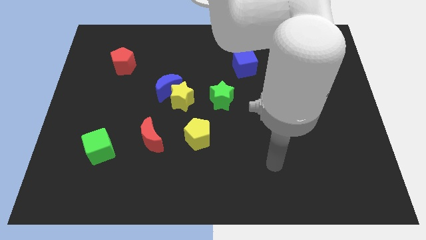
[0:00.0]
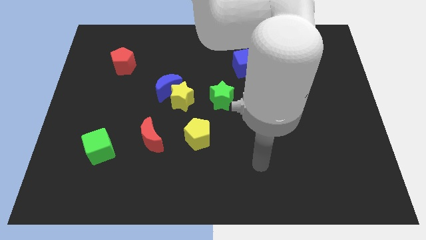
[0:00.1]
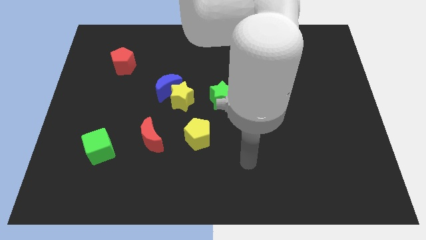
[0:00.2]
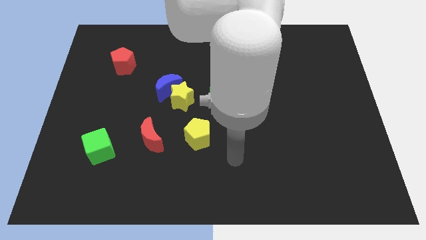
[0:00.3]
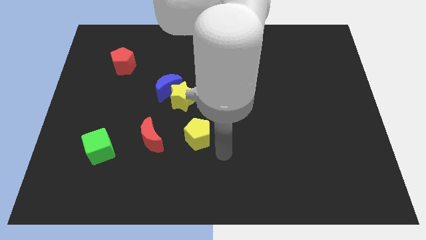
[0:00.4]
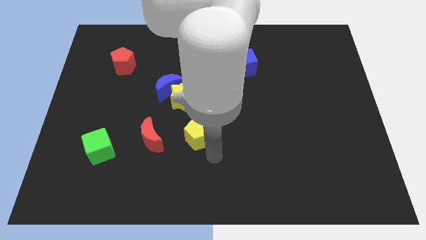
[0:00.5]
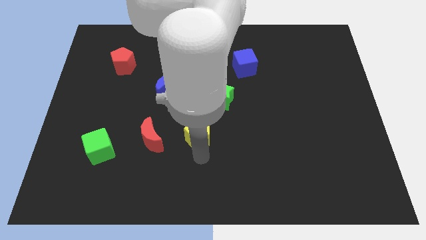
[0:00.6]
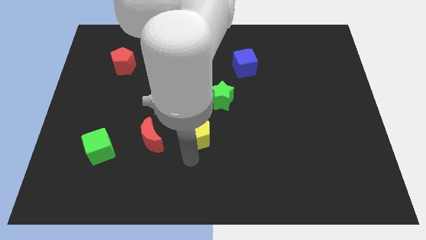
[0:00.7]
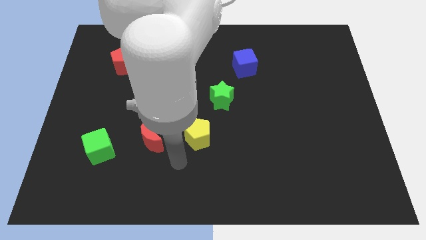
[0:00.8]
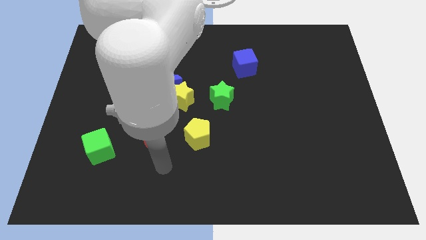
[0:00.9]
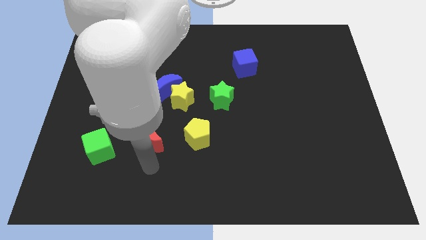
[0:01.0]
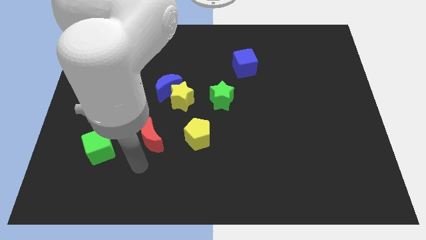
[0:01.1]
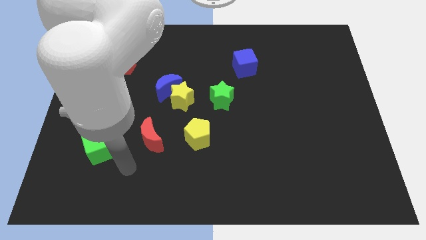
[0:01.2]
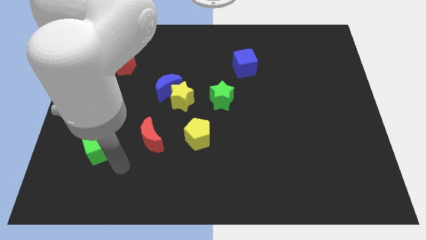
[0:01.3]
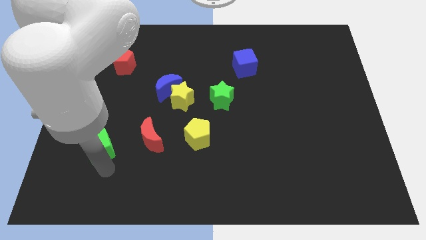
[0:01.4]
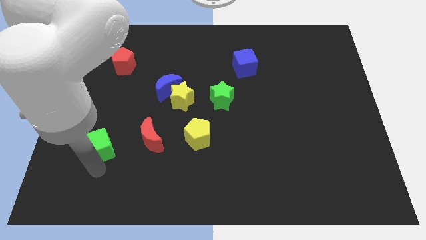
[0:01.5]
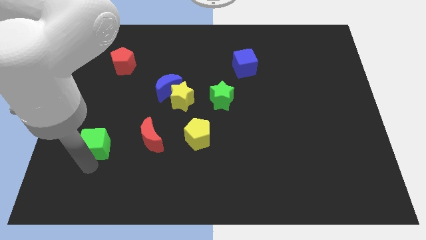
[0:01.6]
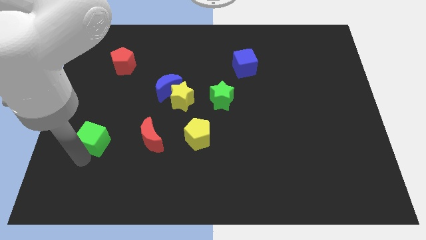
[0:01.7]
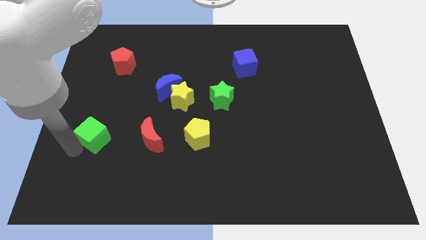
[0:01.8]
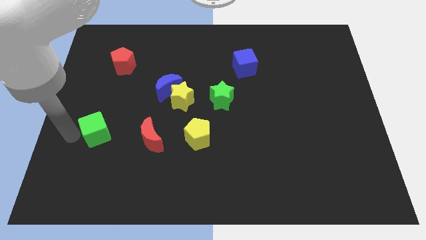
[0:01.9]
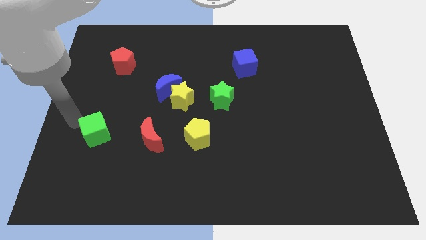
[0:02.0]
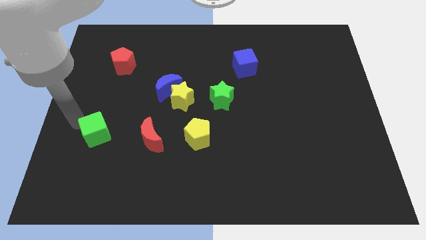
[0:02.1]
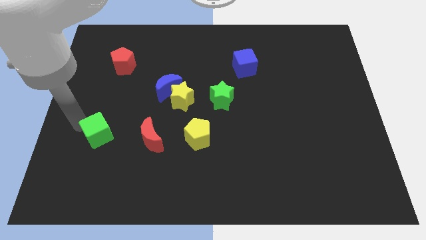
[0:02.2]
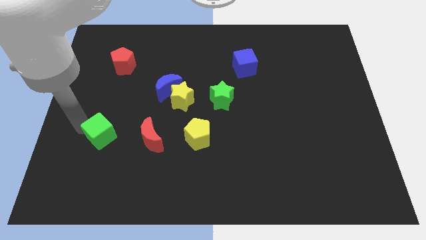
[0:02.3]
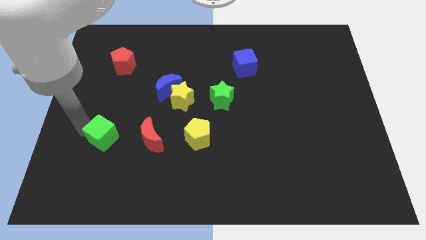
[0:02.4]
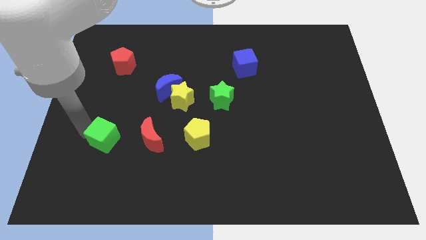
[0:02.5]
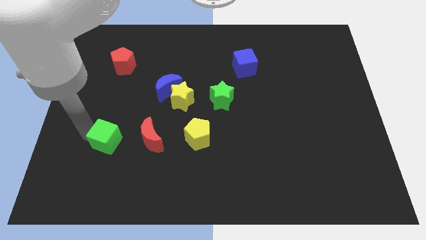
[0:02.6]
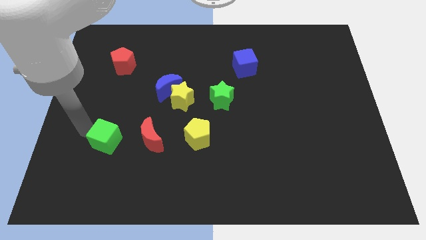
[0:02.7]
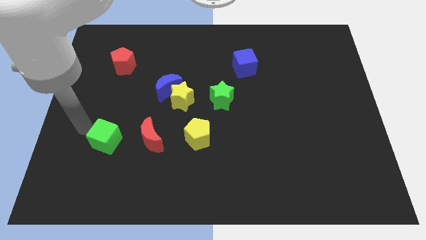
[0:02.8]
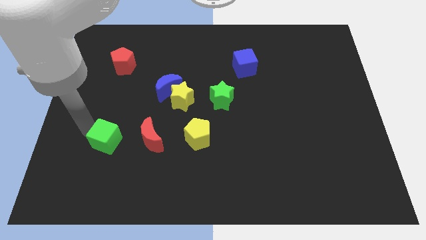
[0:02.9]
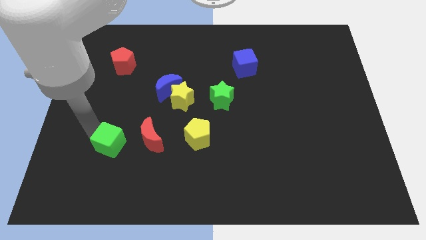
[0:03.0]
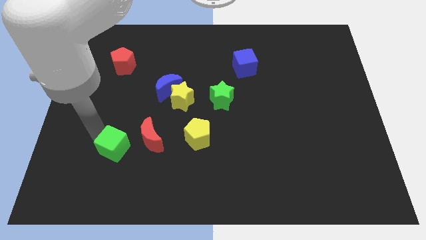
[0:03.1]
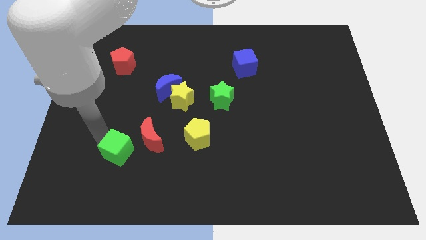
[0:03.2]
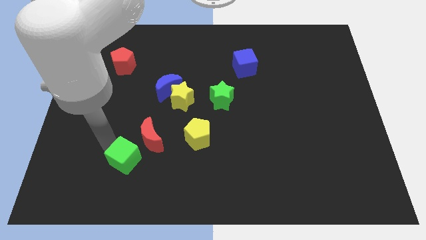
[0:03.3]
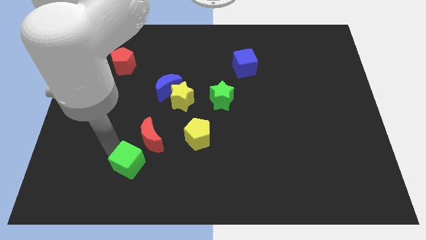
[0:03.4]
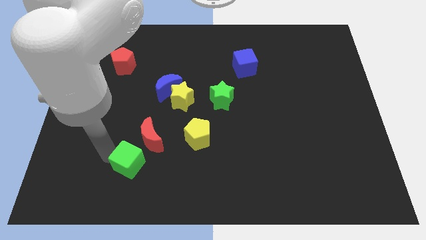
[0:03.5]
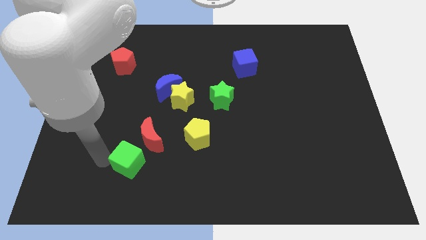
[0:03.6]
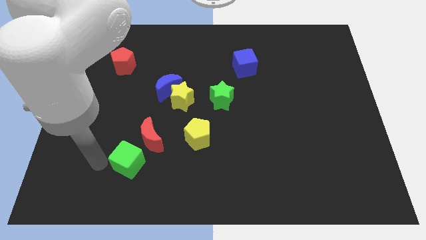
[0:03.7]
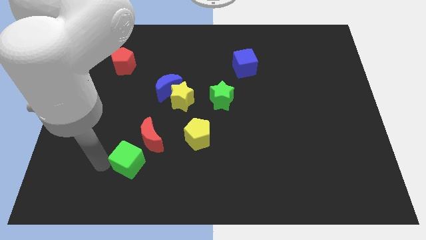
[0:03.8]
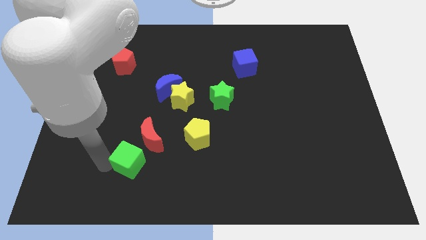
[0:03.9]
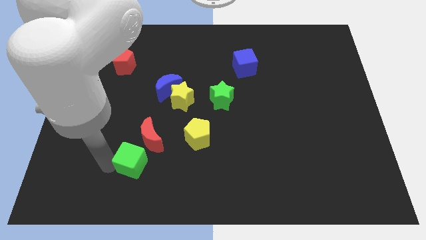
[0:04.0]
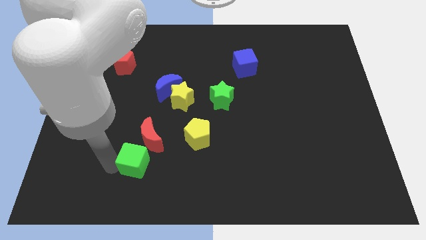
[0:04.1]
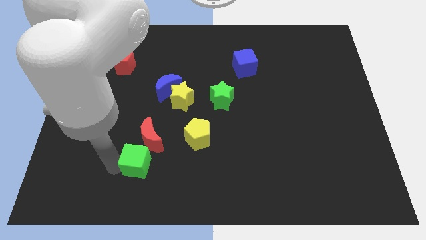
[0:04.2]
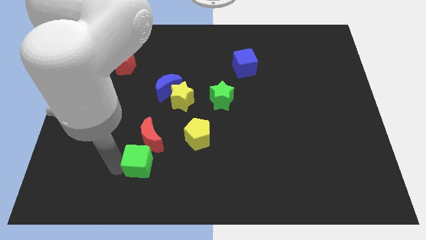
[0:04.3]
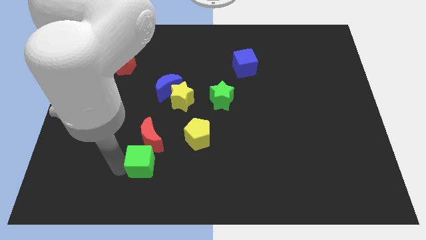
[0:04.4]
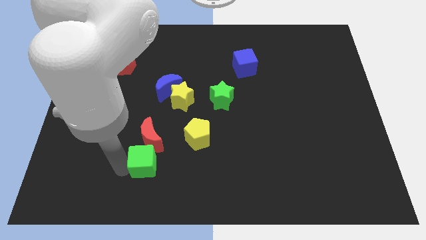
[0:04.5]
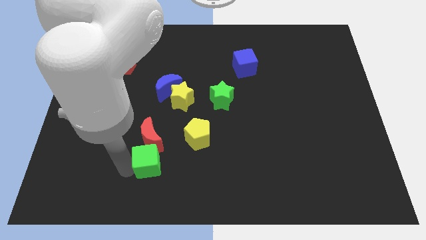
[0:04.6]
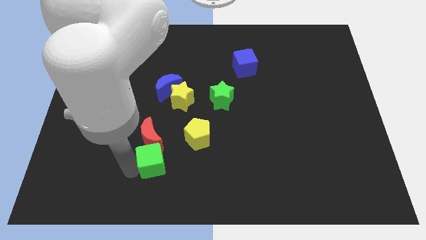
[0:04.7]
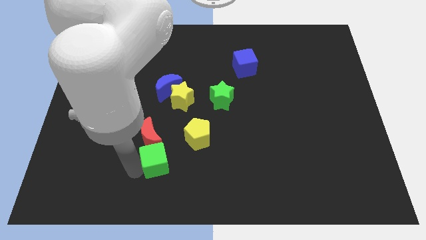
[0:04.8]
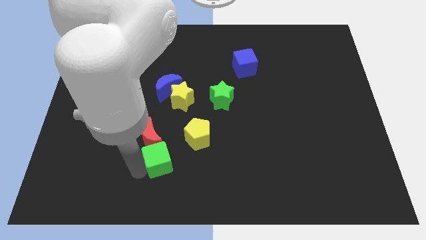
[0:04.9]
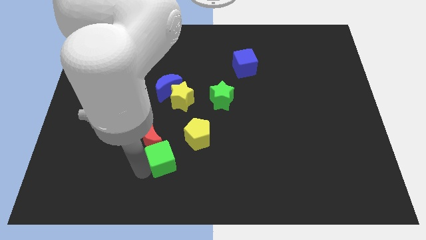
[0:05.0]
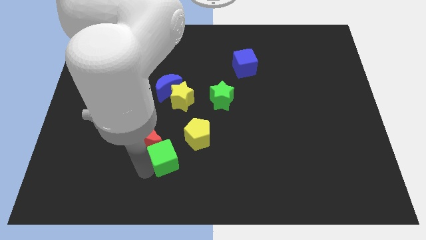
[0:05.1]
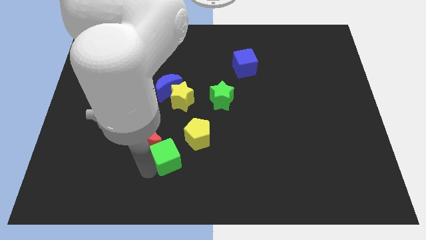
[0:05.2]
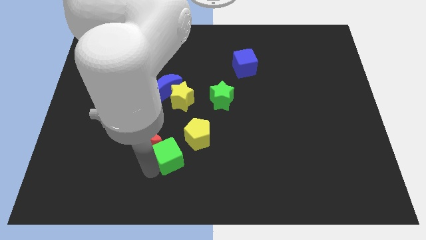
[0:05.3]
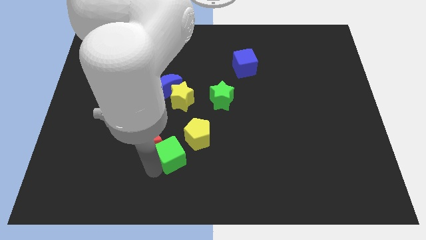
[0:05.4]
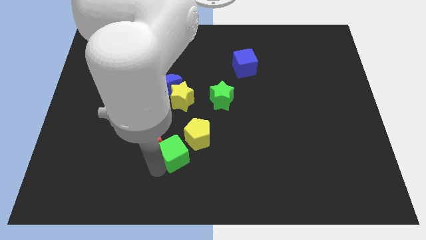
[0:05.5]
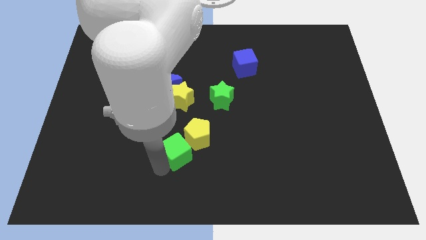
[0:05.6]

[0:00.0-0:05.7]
move the green cube close to the yellow pentagon

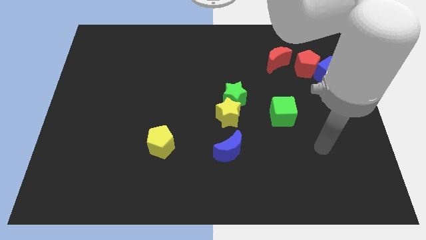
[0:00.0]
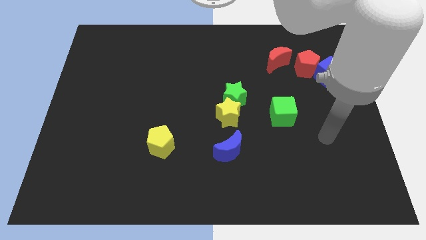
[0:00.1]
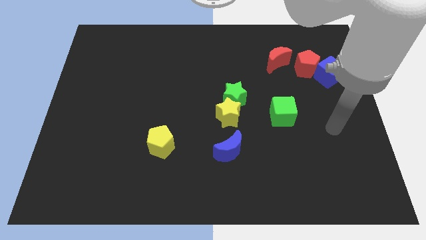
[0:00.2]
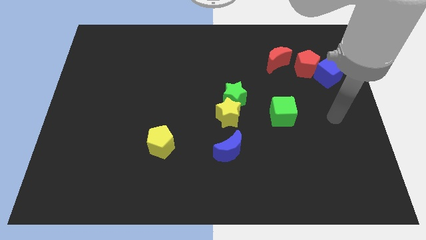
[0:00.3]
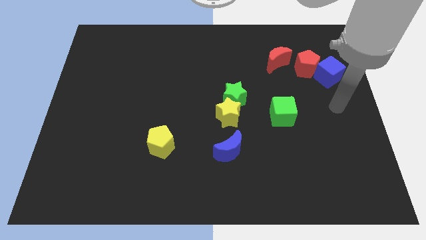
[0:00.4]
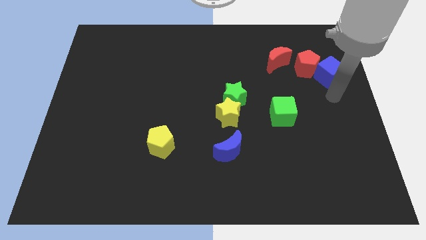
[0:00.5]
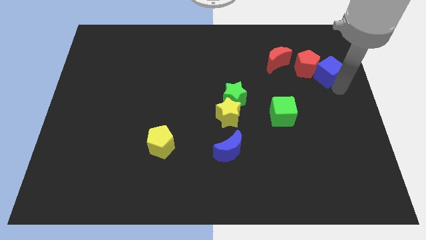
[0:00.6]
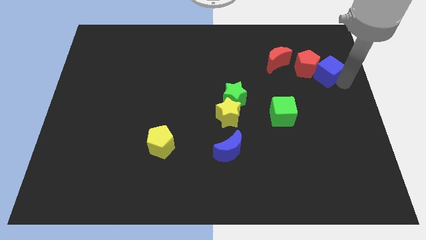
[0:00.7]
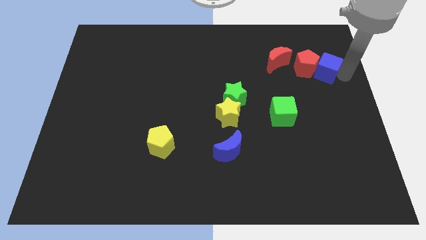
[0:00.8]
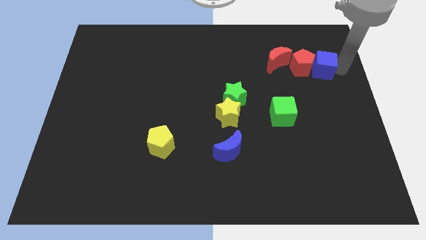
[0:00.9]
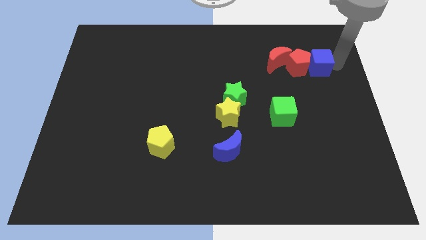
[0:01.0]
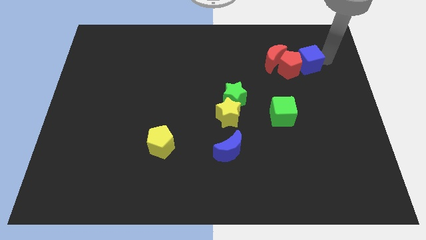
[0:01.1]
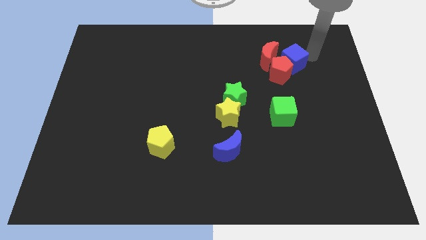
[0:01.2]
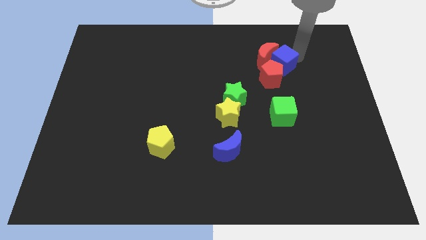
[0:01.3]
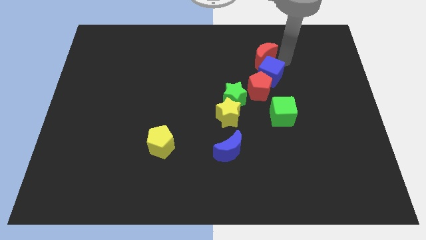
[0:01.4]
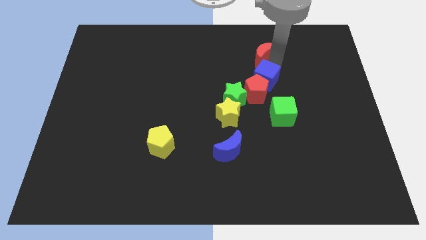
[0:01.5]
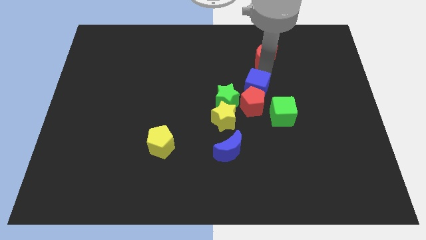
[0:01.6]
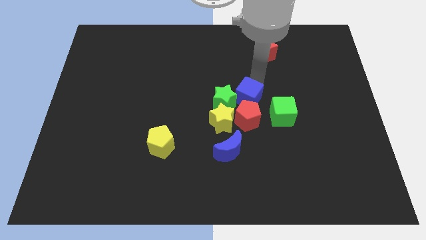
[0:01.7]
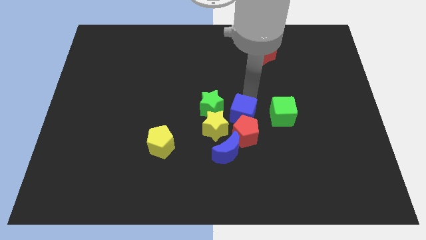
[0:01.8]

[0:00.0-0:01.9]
slide the red pentagon close to the blue moon

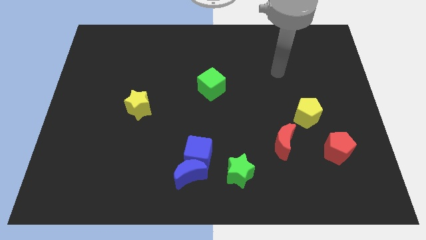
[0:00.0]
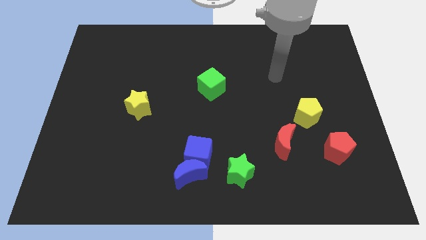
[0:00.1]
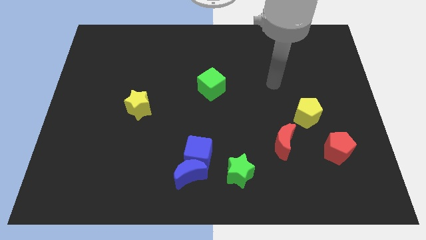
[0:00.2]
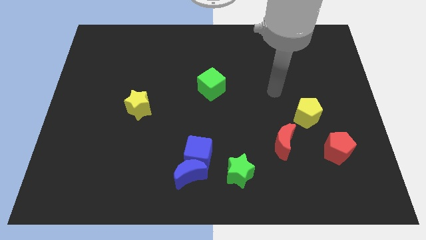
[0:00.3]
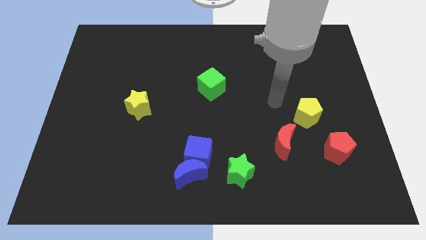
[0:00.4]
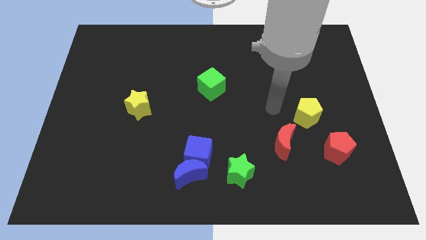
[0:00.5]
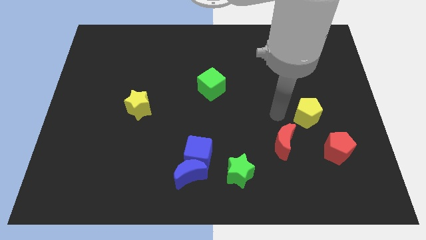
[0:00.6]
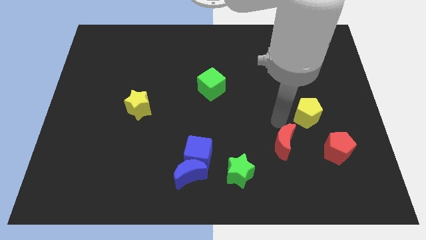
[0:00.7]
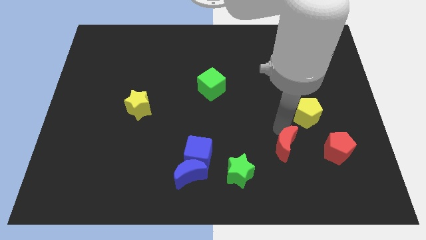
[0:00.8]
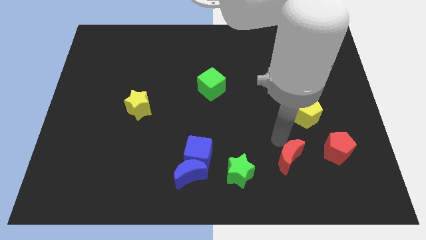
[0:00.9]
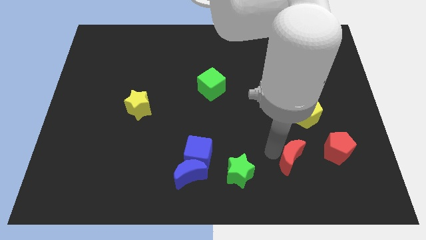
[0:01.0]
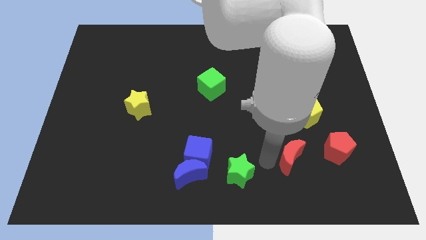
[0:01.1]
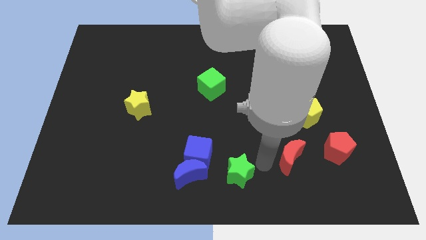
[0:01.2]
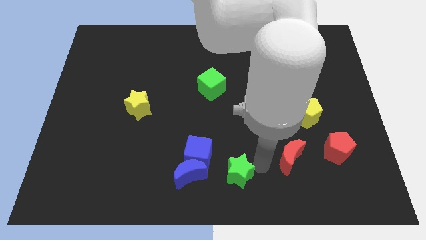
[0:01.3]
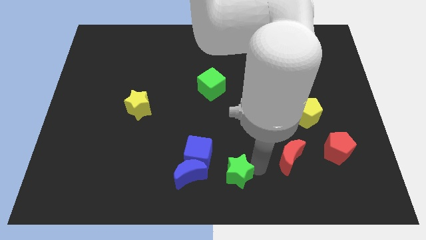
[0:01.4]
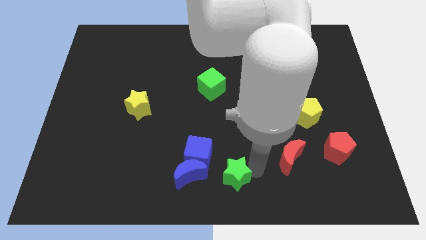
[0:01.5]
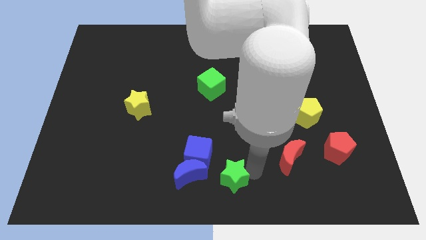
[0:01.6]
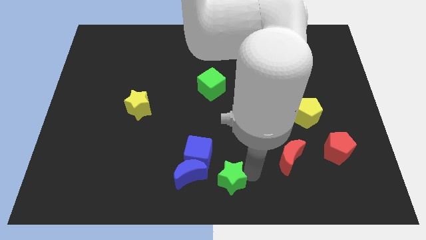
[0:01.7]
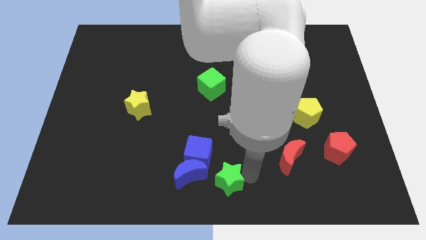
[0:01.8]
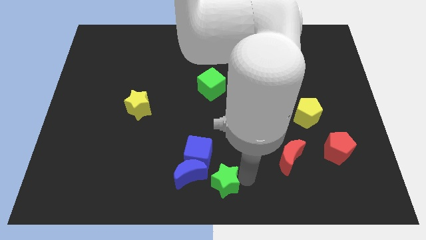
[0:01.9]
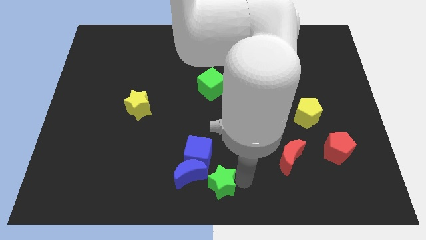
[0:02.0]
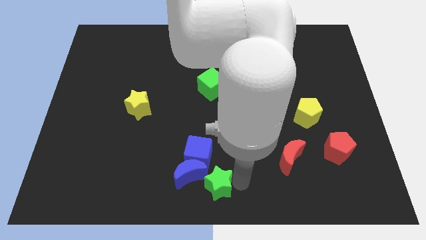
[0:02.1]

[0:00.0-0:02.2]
put the green star next to the blue moon
